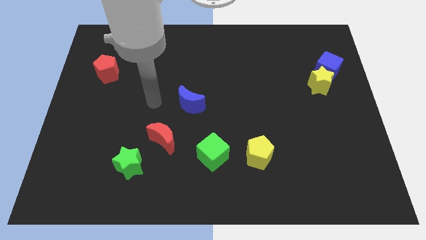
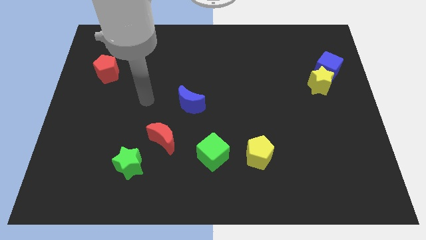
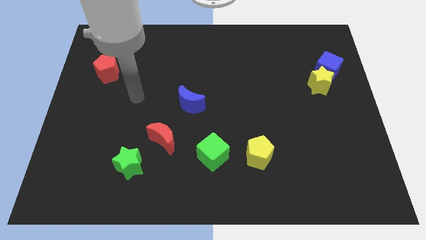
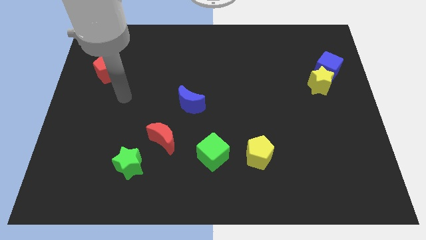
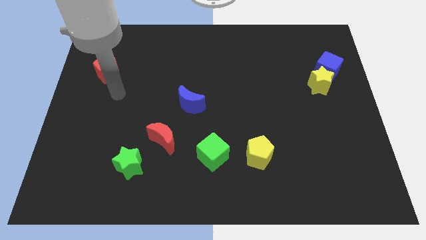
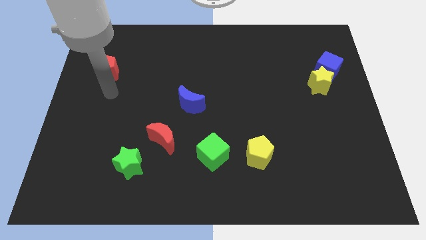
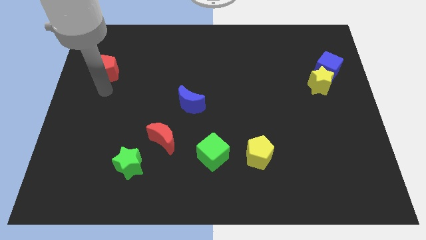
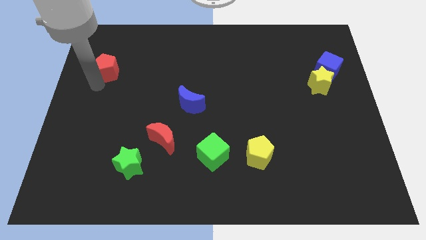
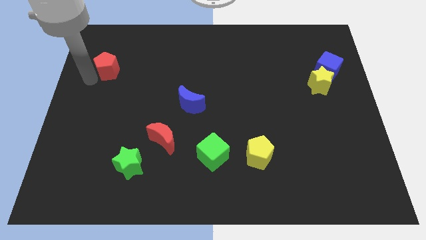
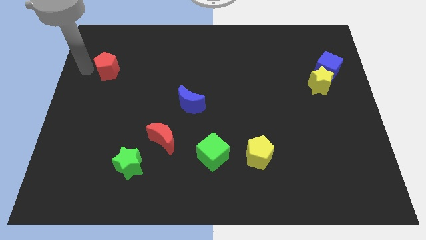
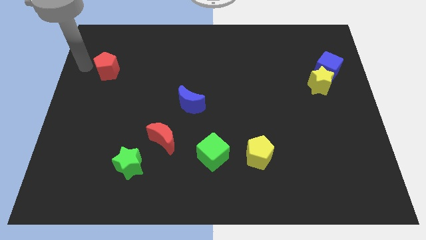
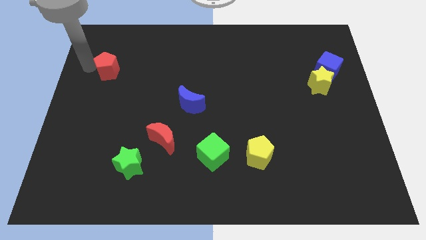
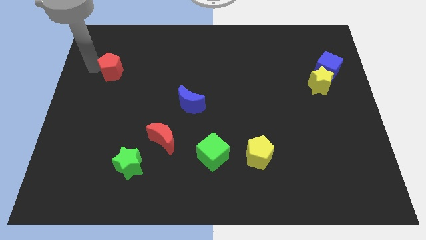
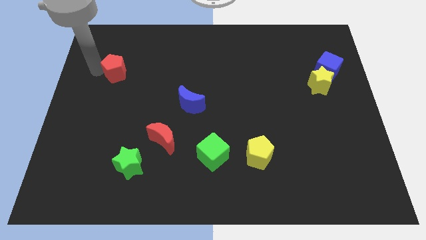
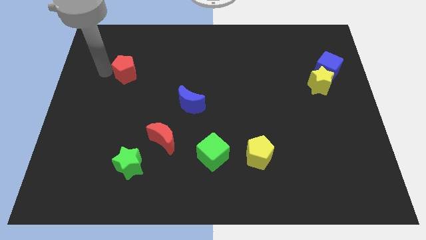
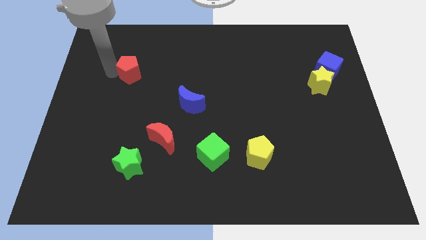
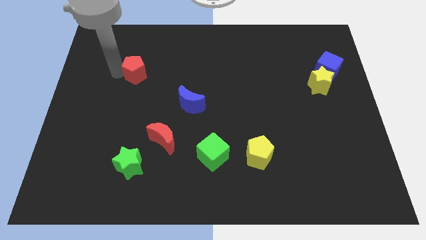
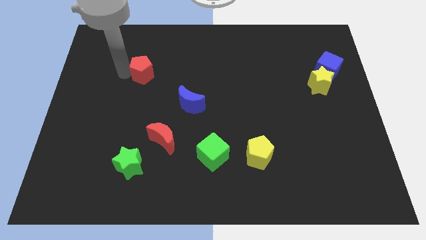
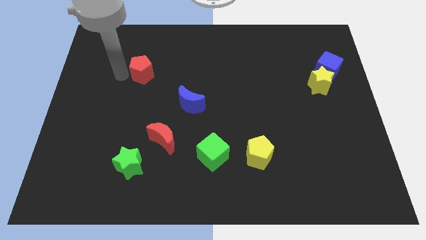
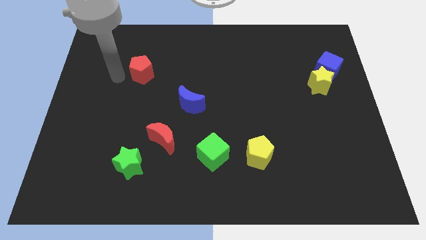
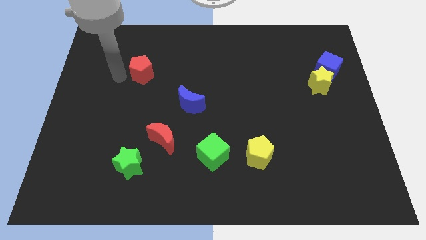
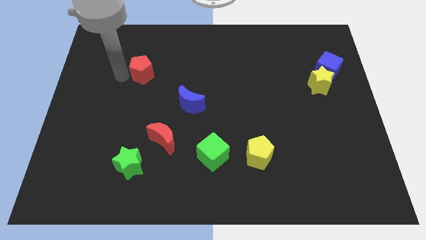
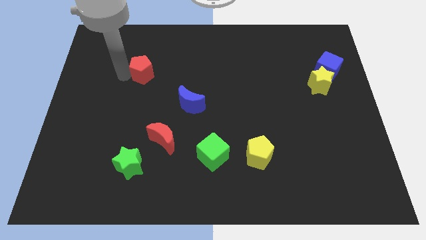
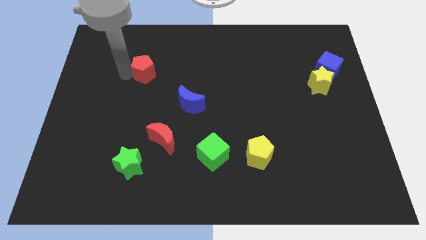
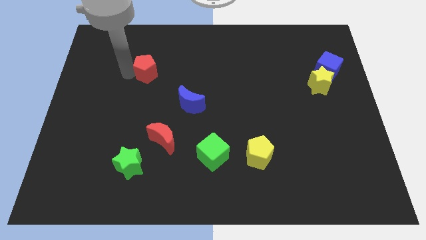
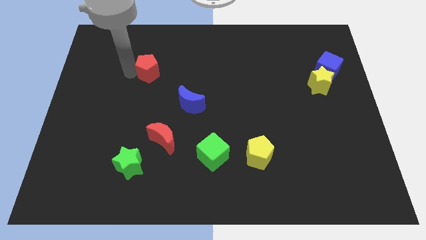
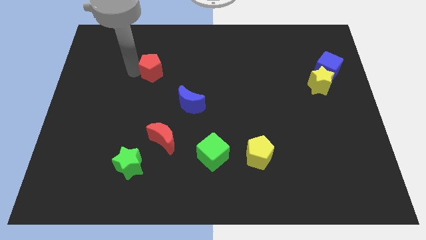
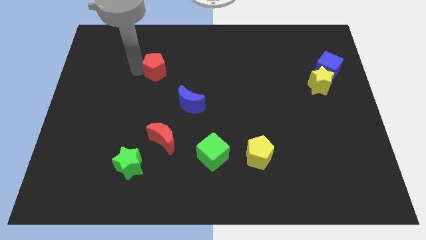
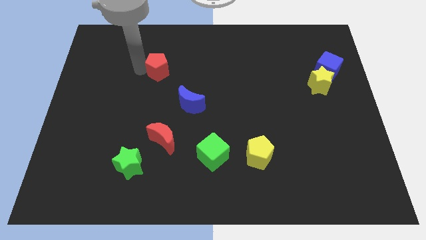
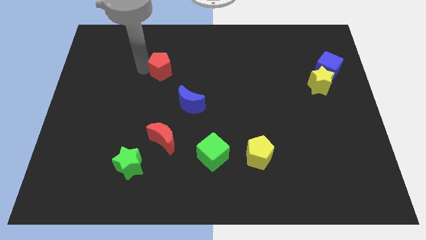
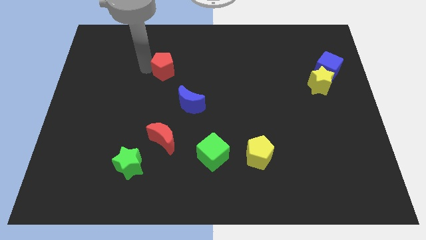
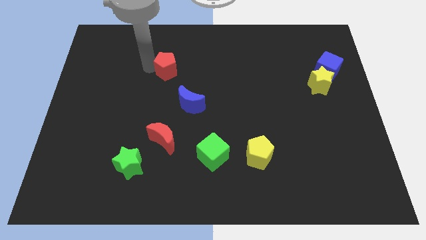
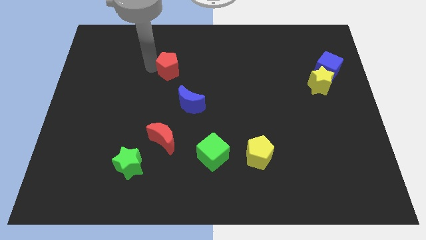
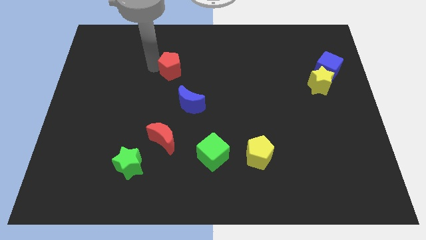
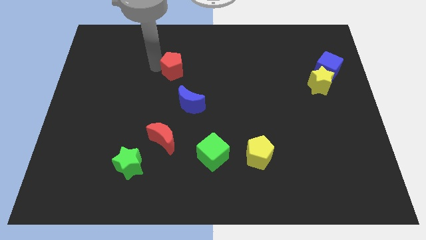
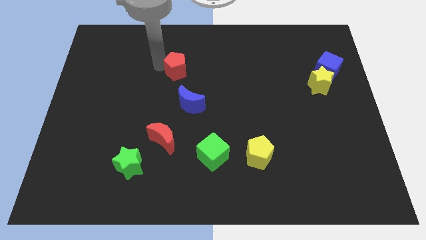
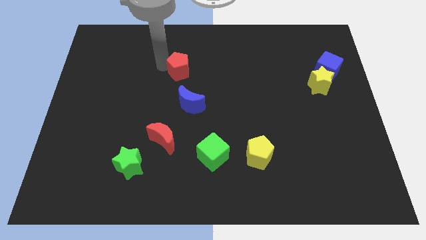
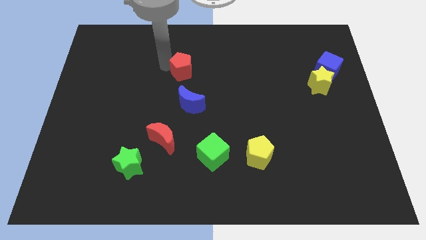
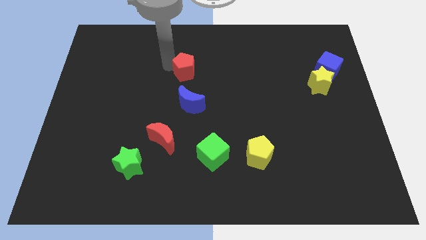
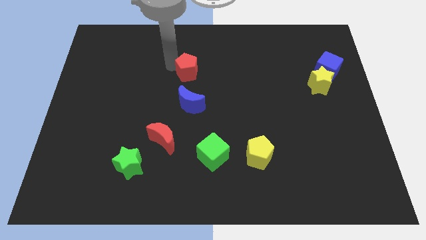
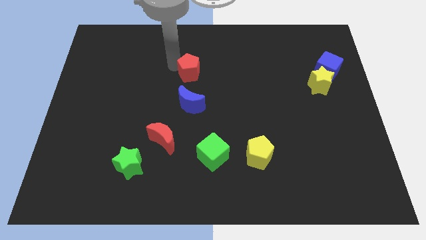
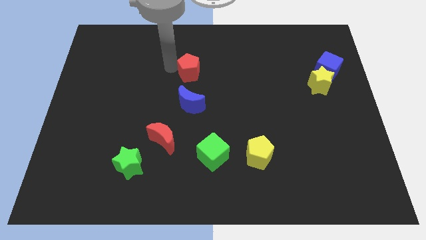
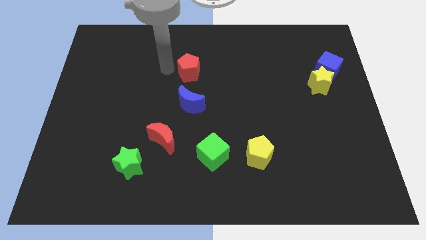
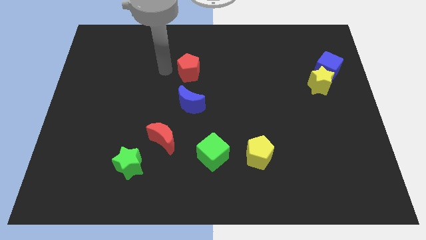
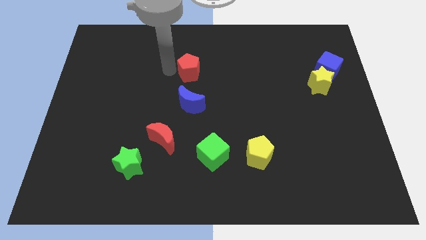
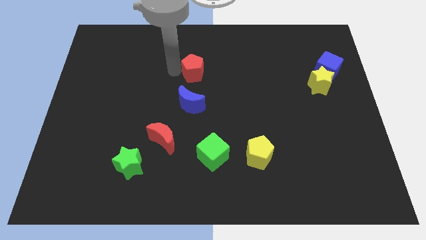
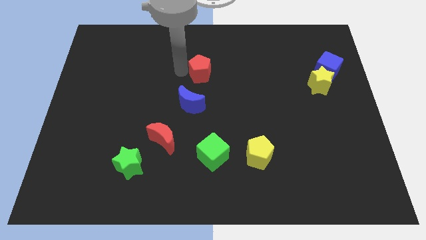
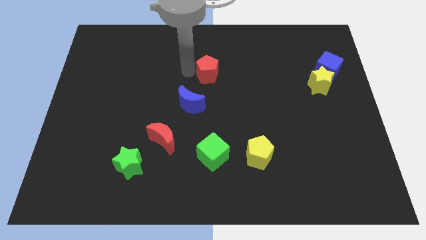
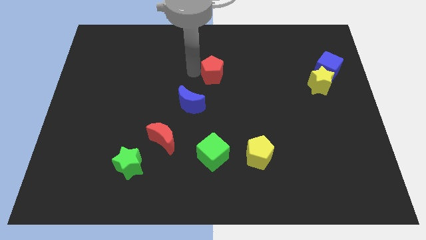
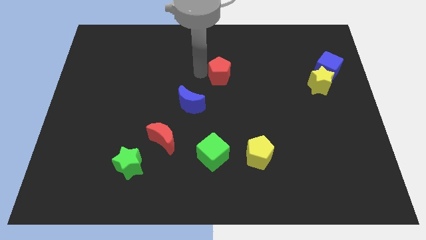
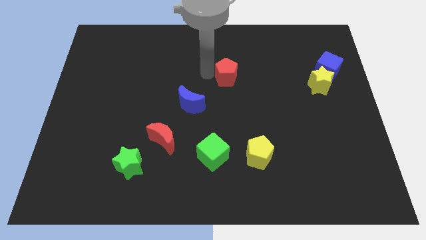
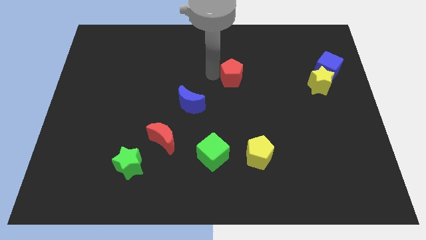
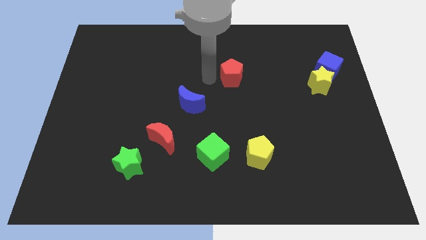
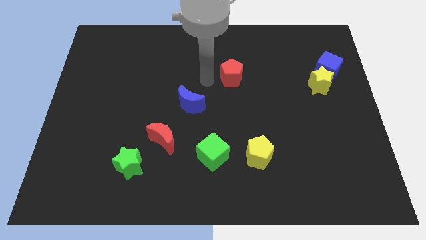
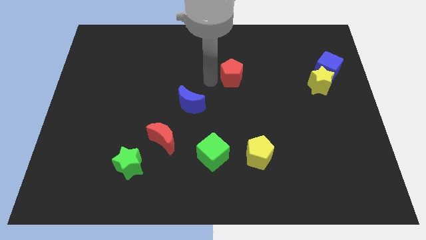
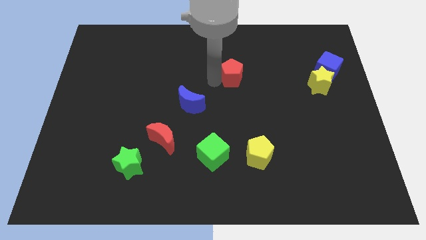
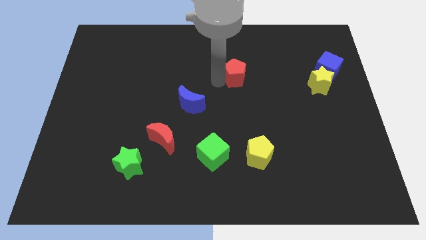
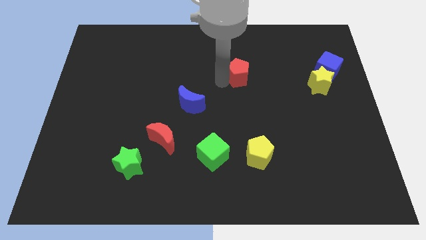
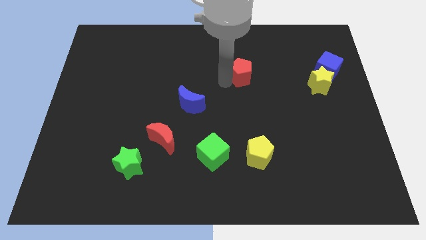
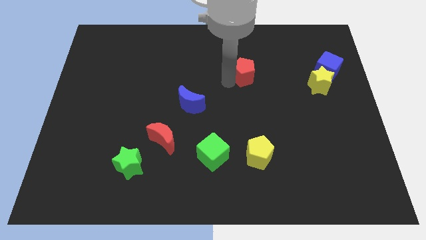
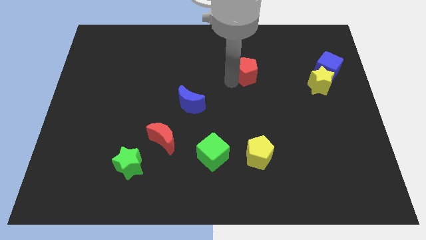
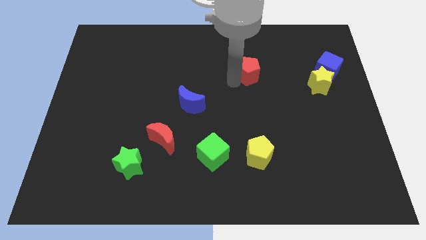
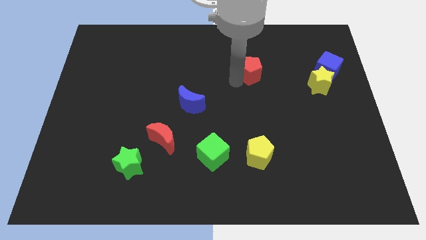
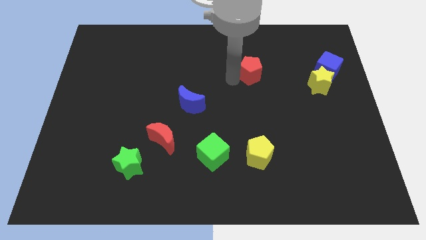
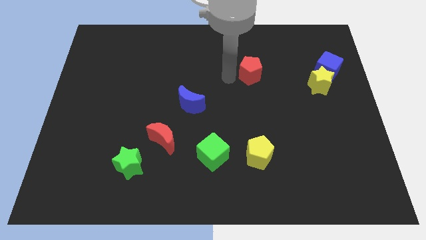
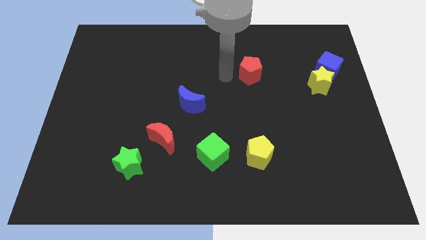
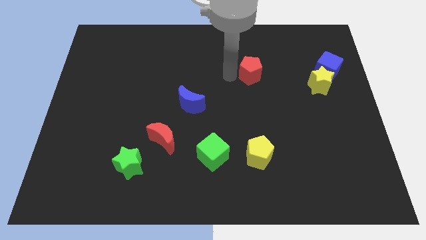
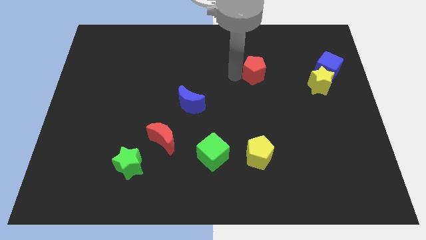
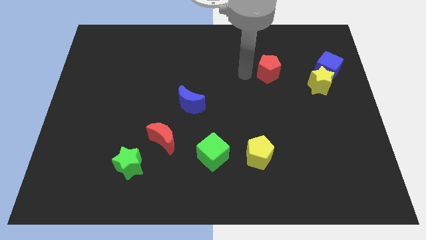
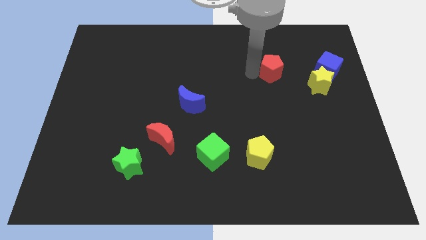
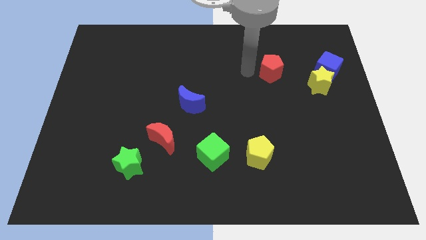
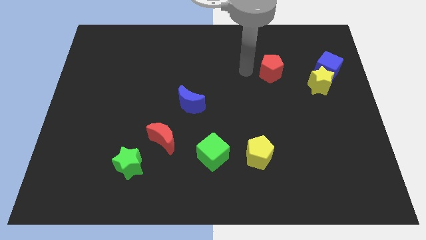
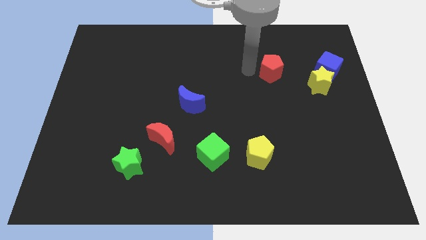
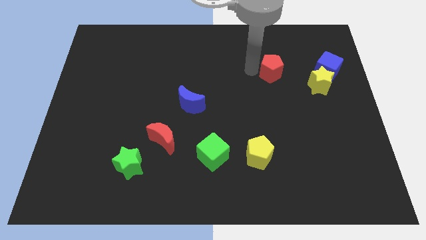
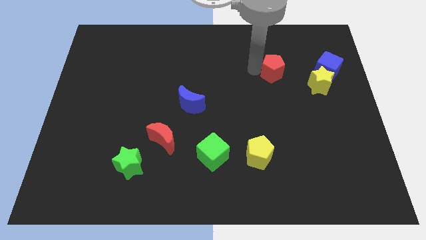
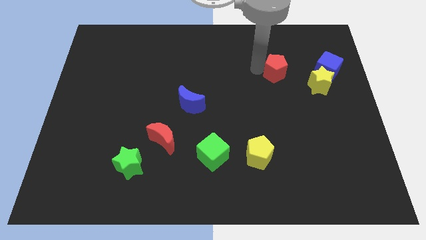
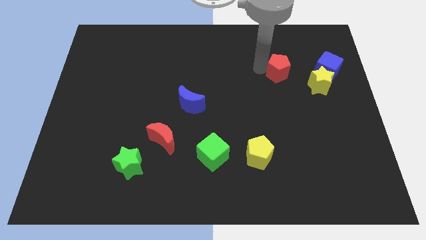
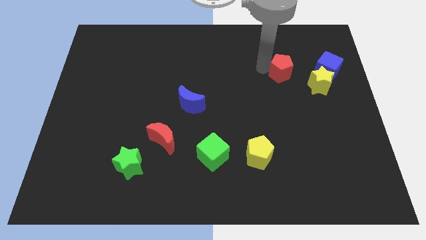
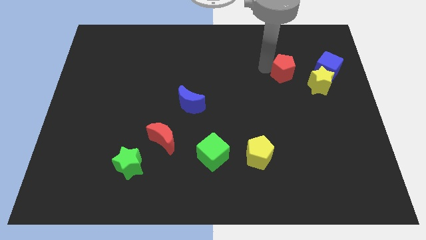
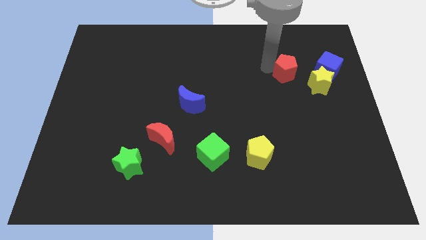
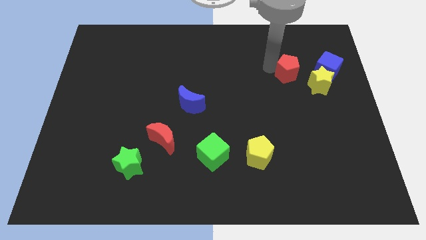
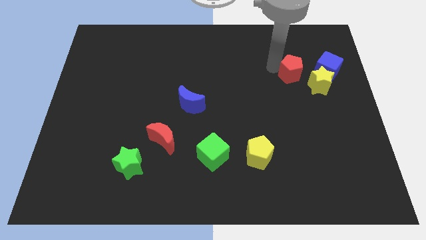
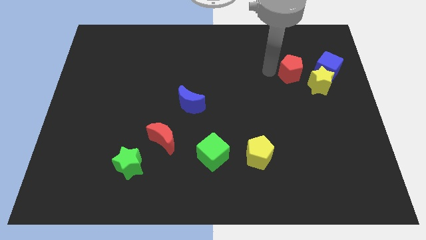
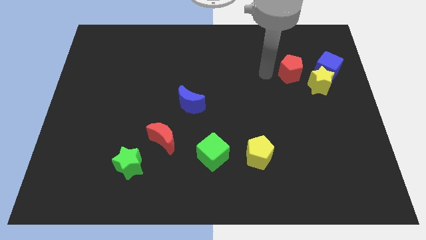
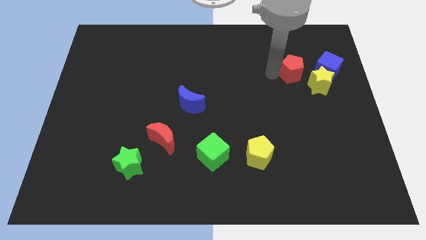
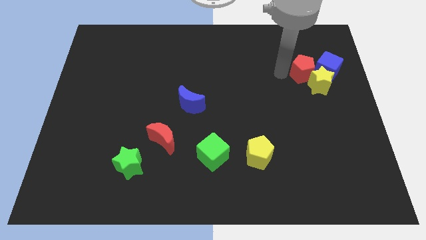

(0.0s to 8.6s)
put the red pentagon to the blue cube
